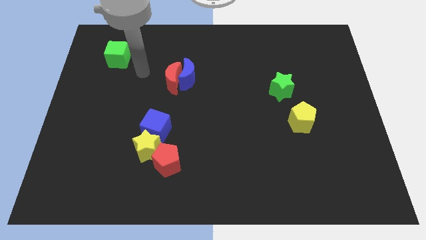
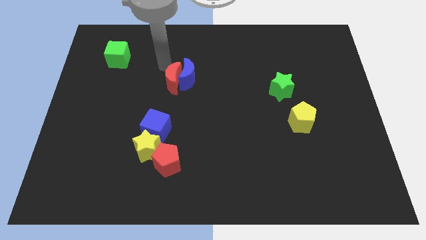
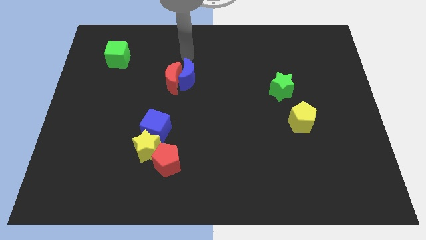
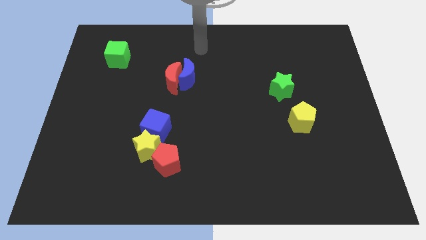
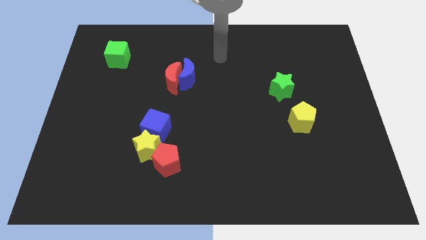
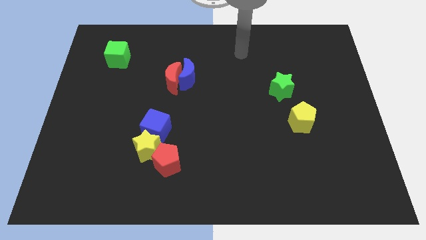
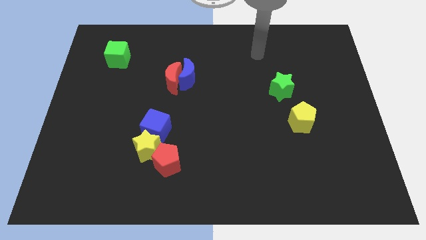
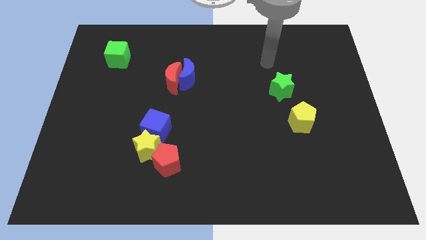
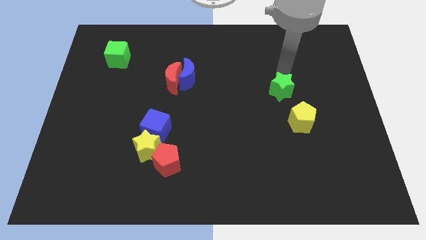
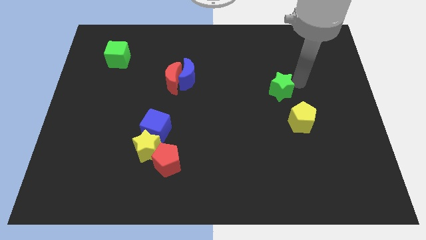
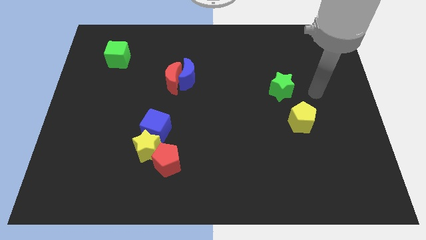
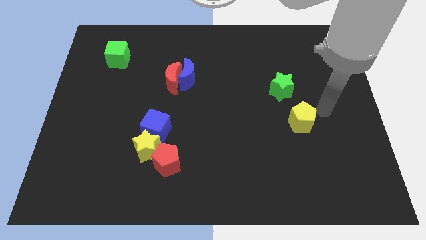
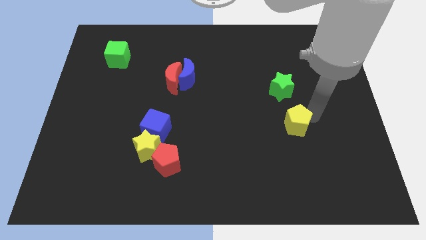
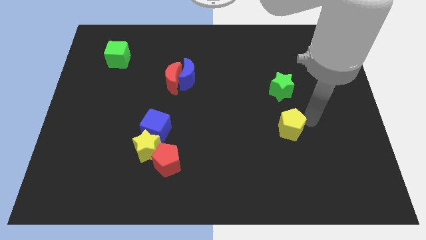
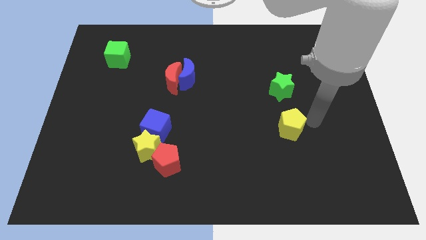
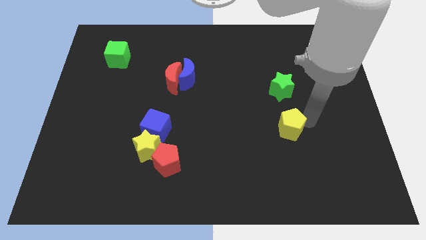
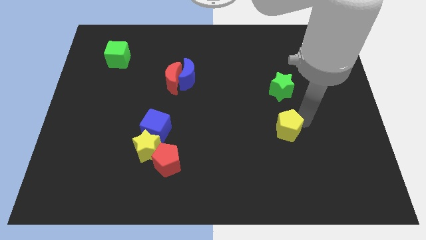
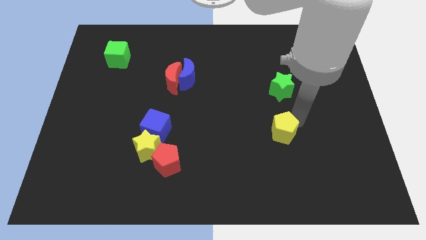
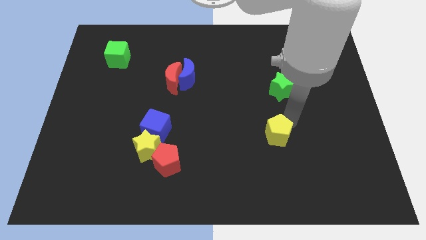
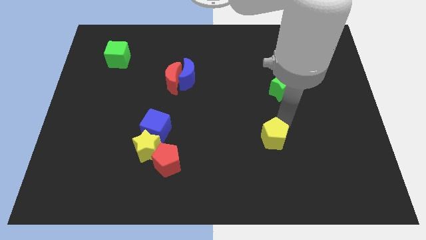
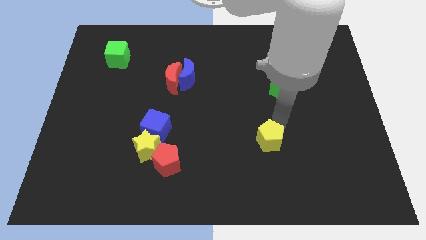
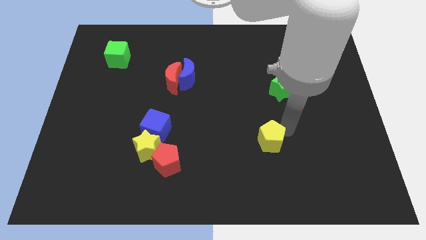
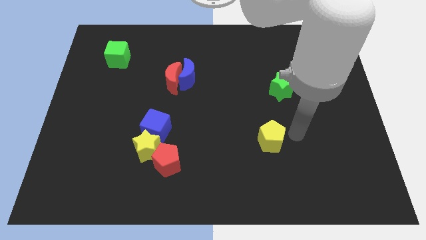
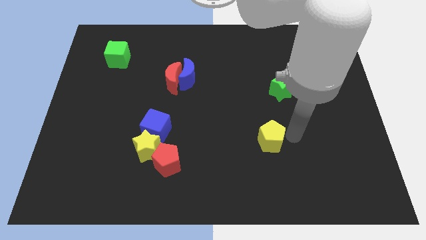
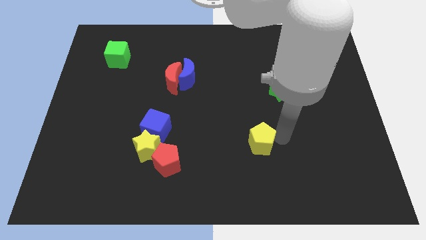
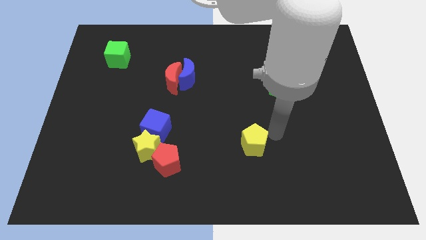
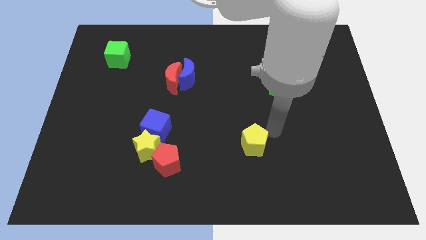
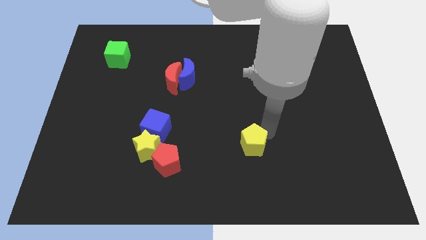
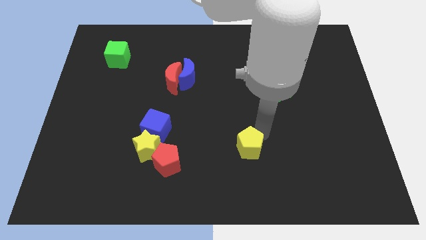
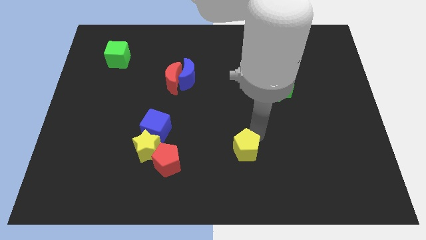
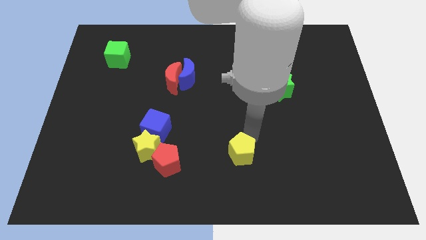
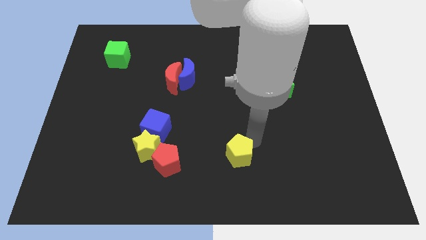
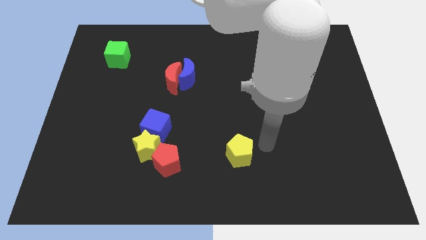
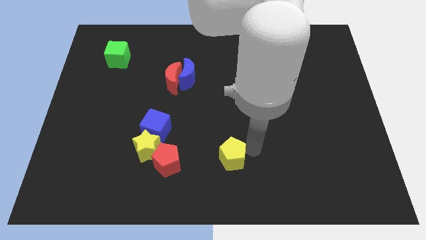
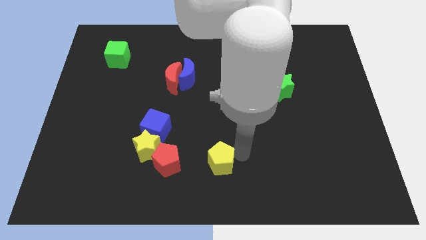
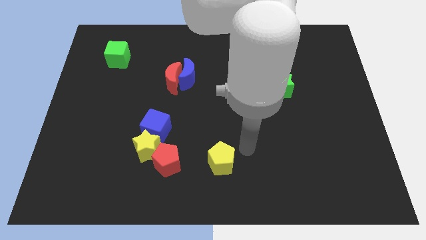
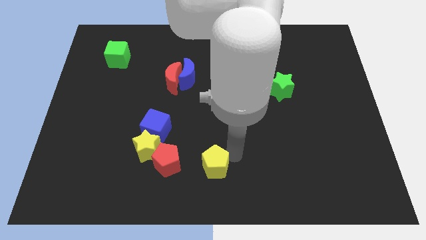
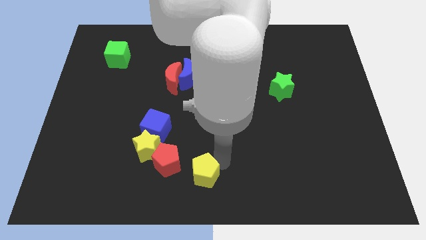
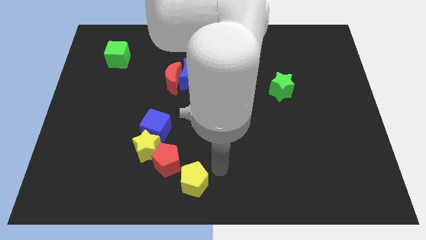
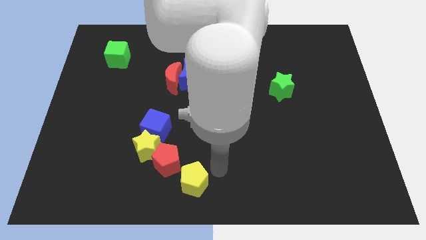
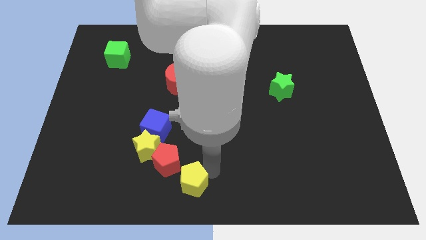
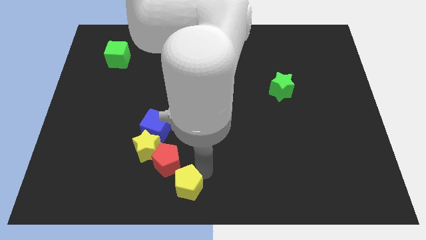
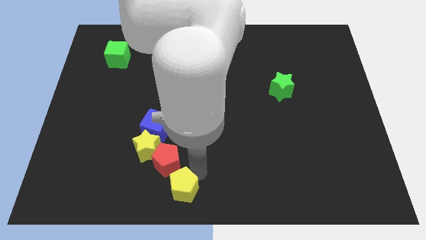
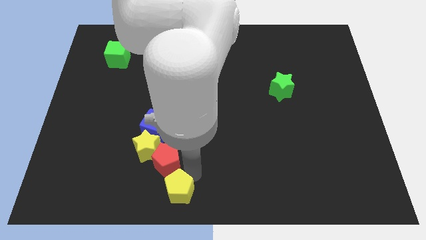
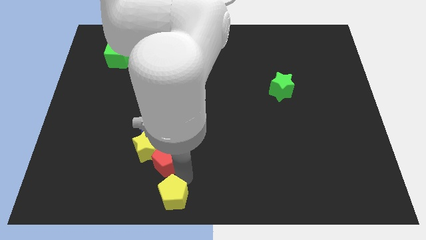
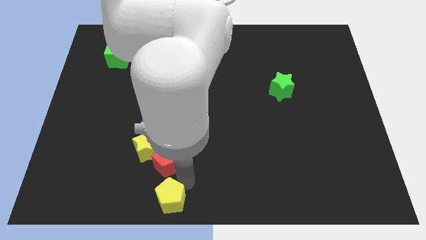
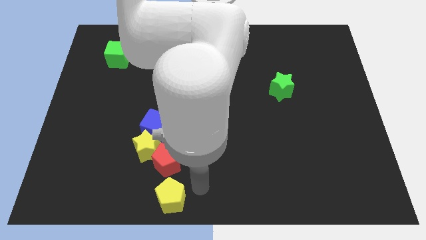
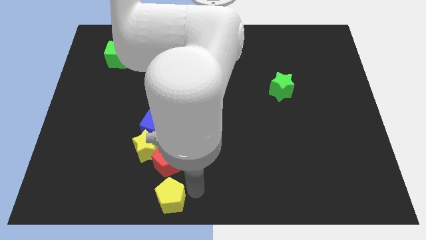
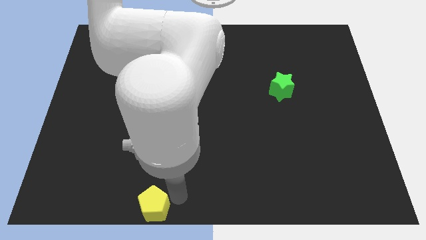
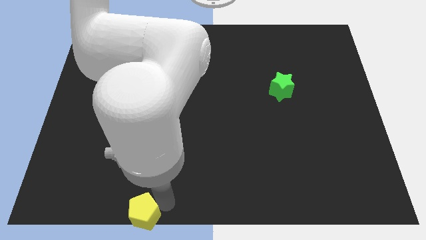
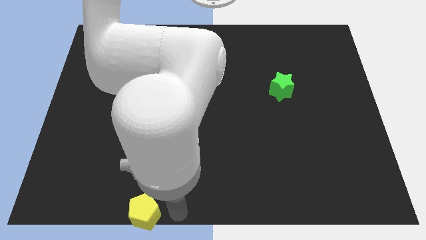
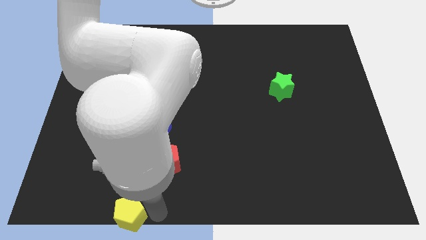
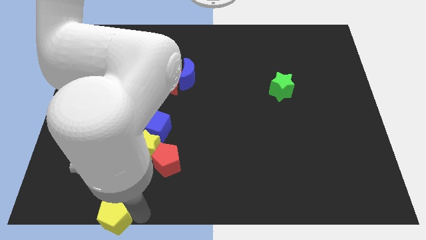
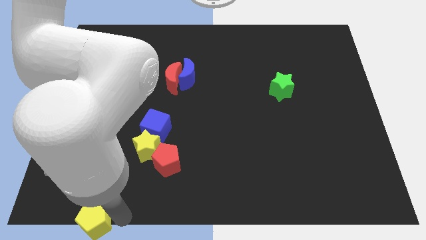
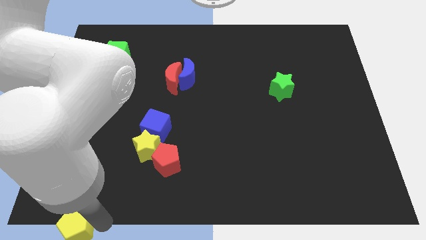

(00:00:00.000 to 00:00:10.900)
put the yellow pentagon to the lower left corner

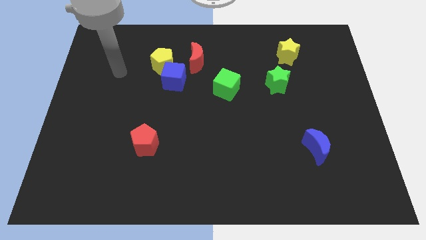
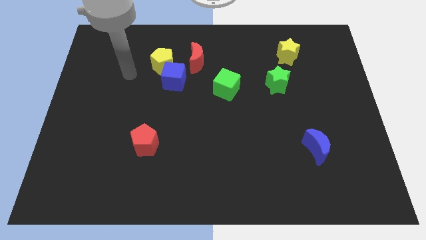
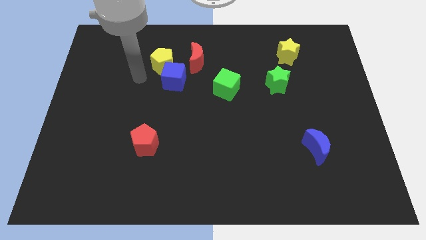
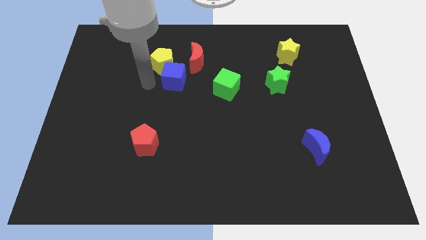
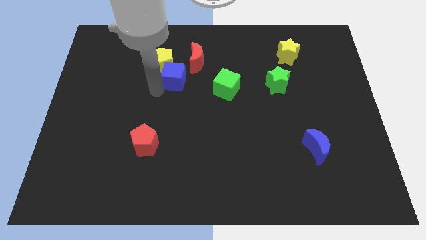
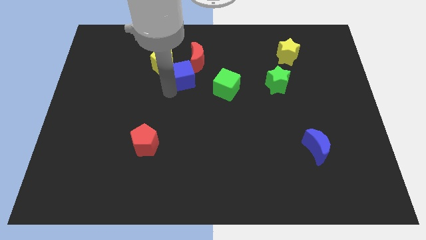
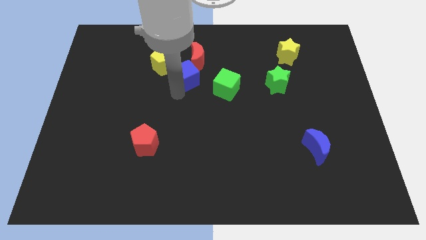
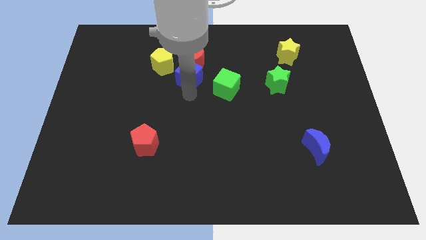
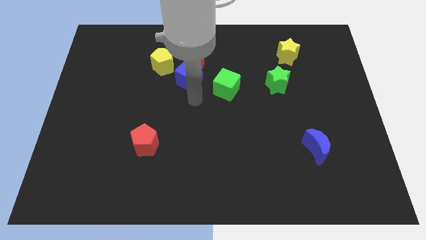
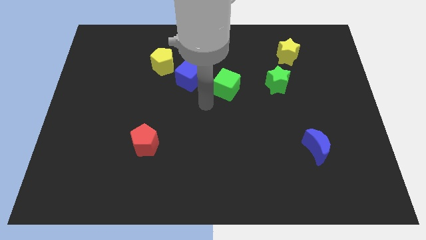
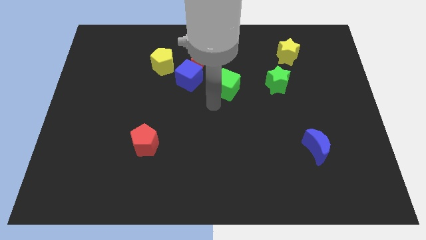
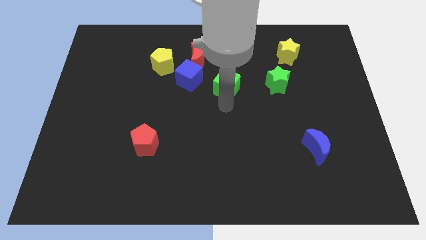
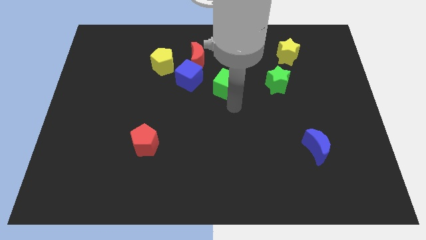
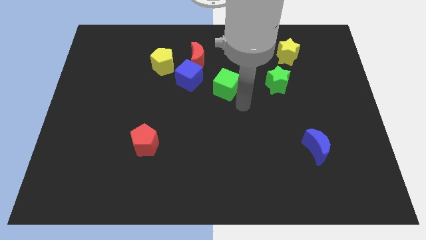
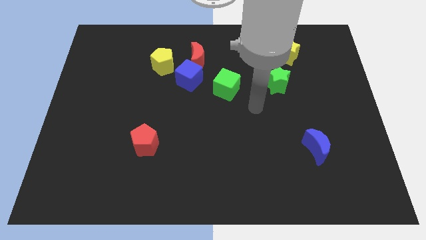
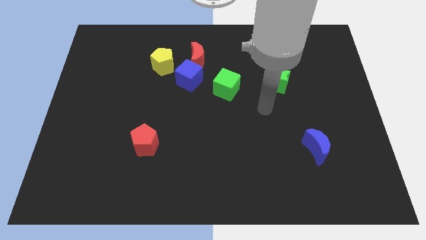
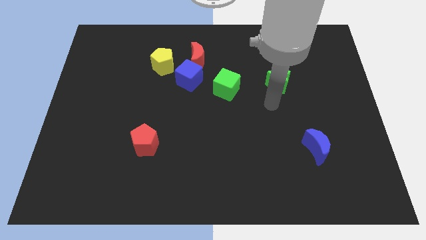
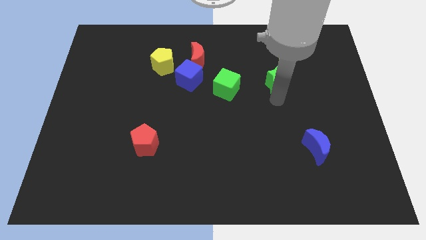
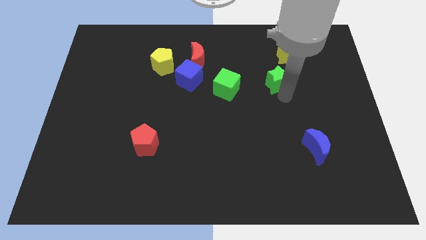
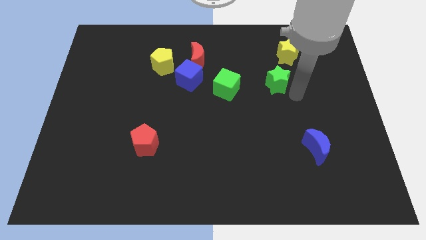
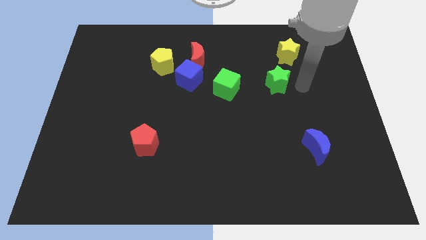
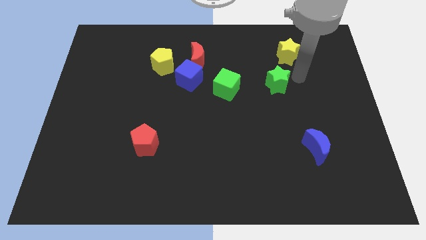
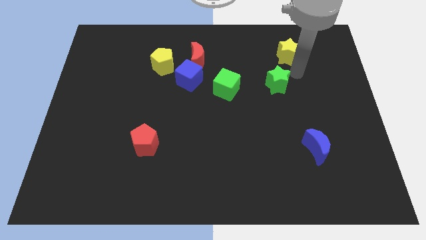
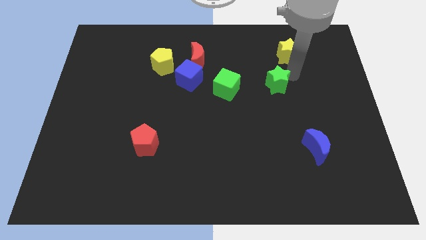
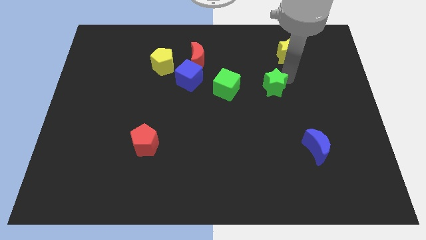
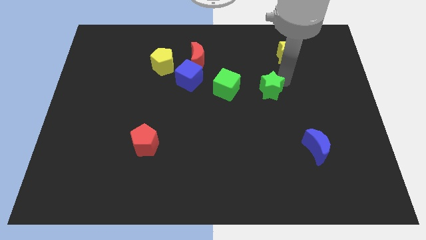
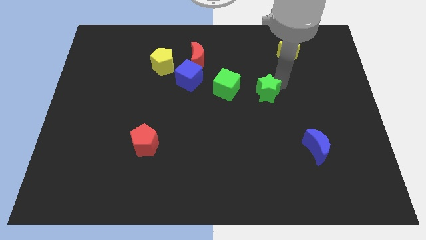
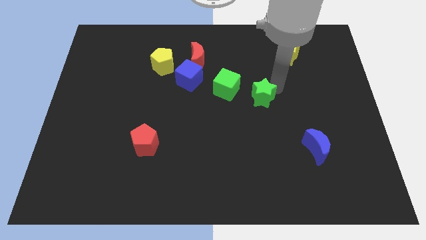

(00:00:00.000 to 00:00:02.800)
push the green star to the center
